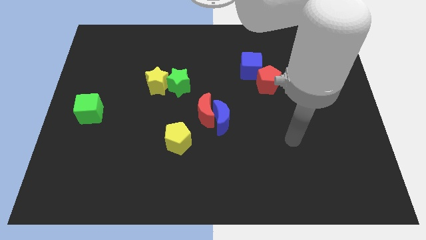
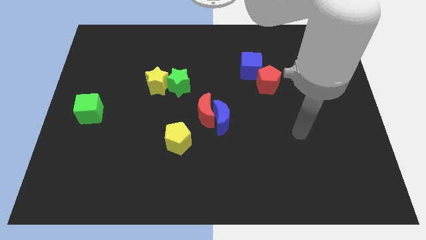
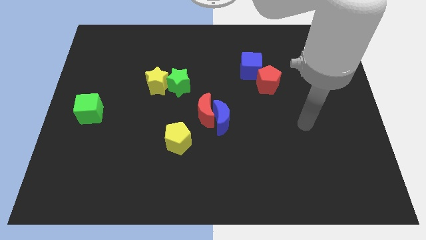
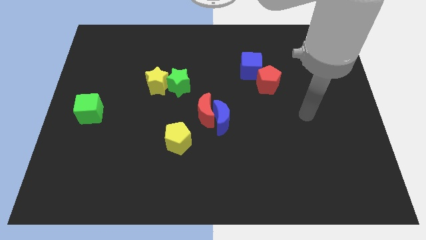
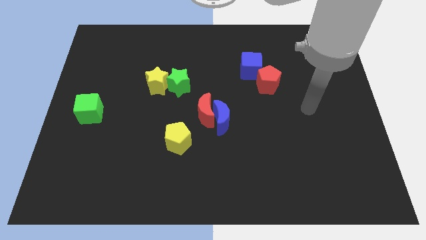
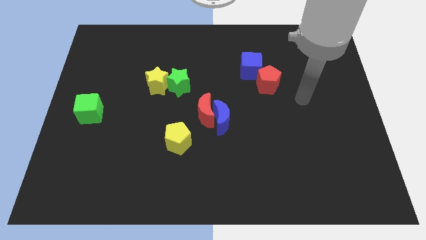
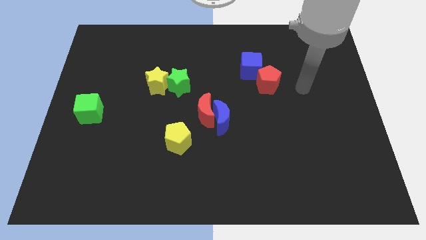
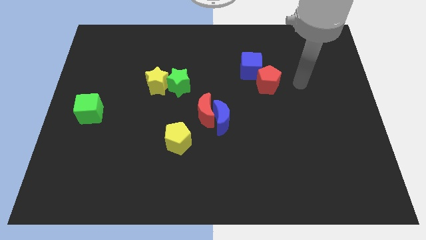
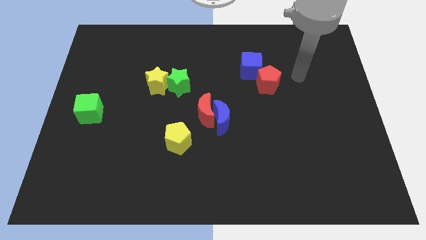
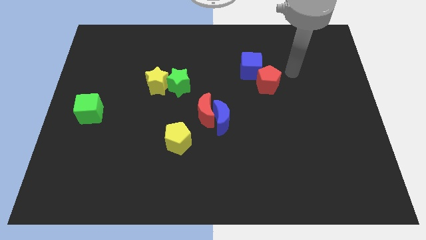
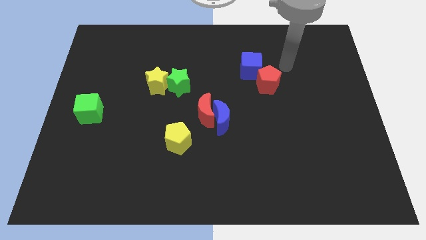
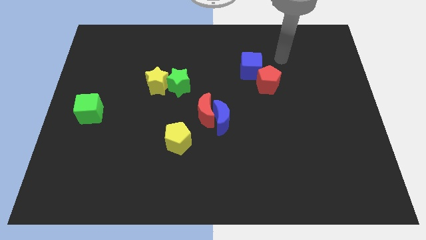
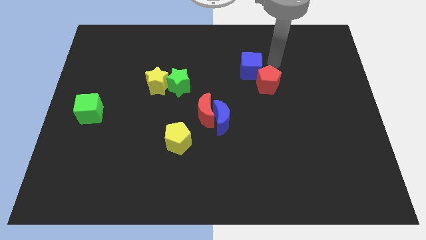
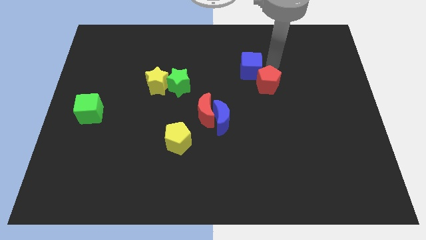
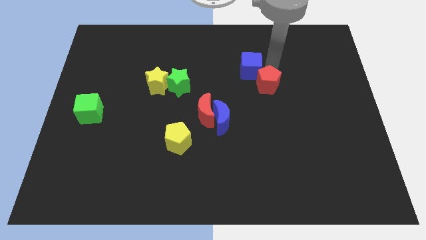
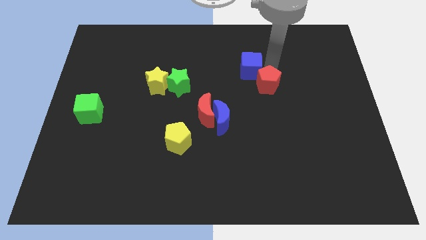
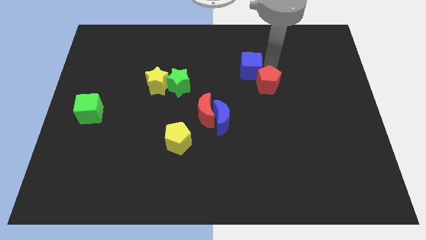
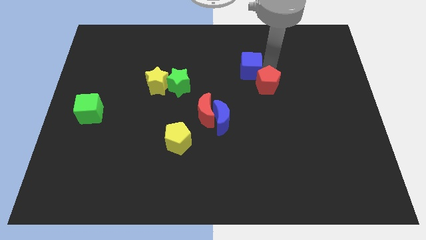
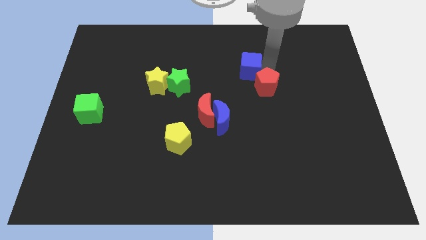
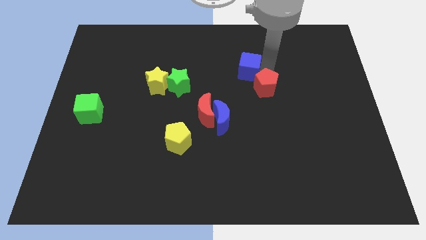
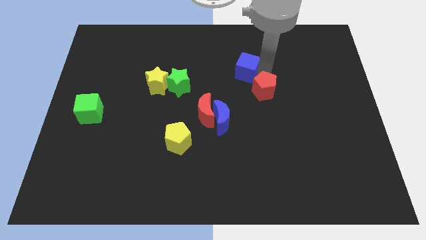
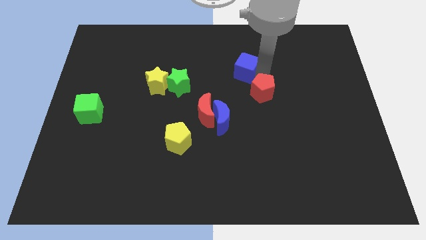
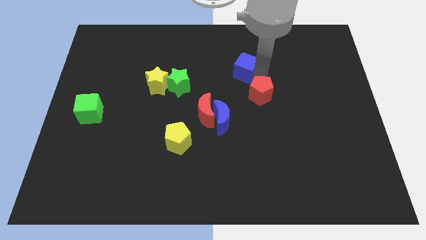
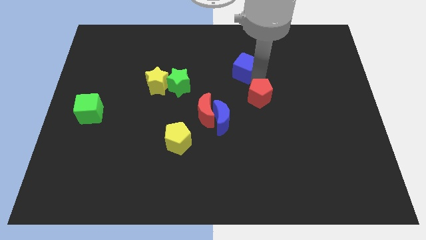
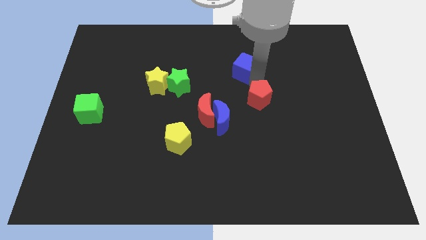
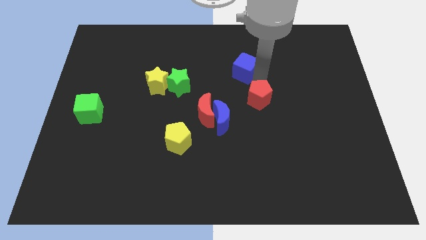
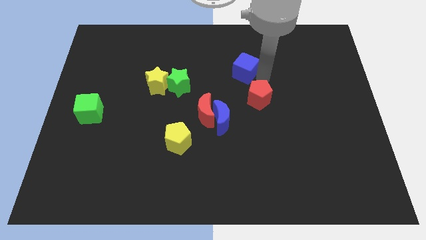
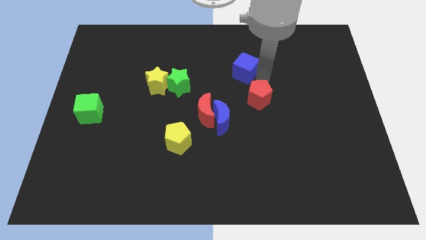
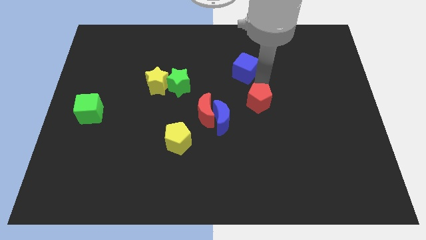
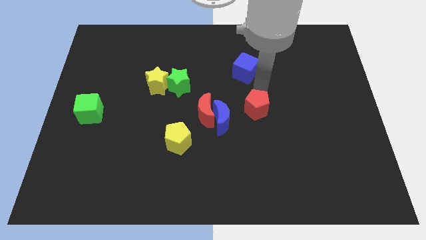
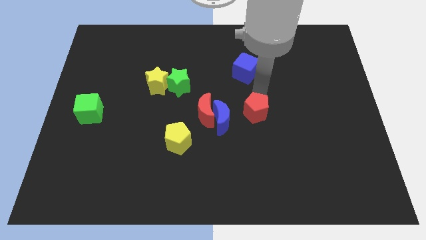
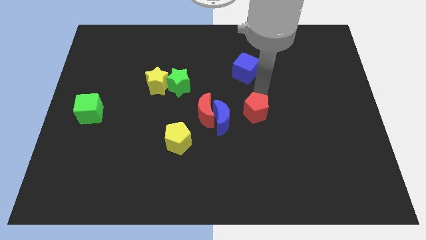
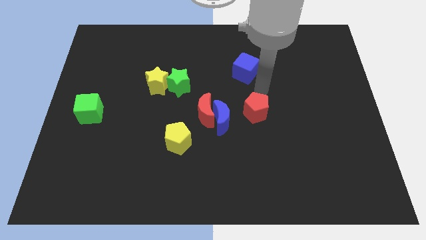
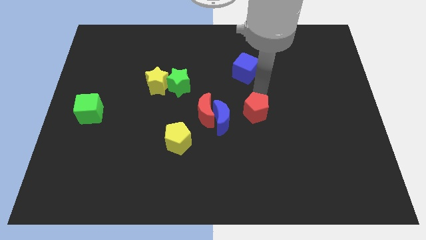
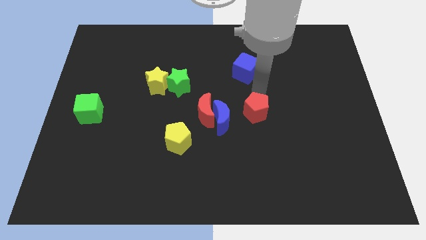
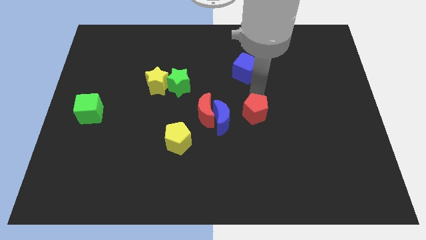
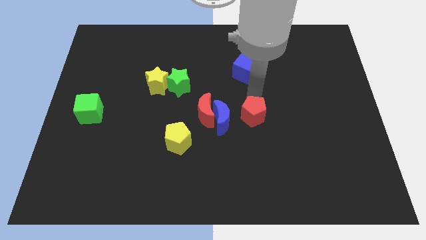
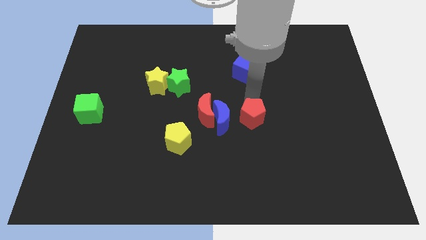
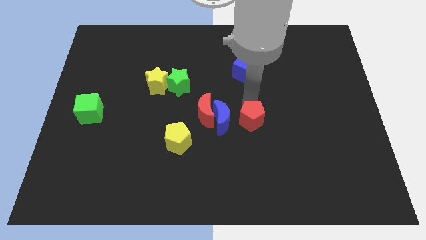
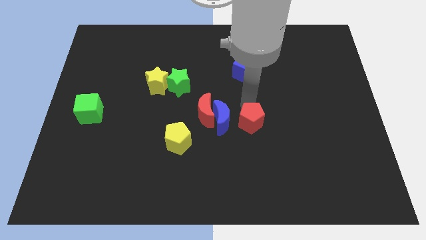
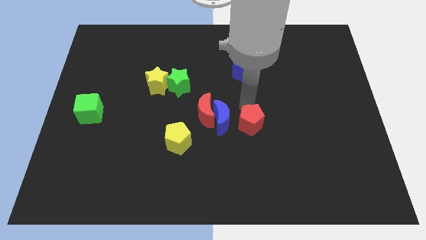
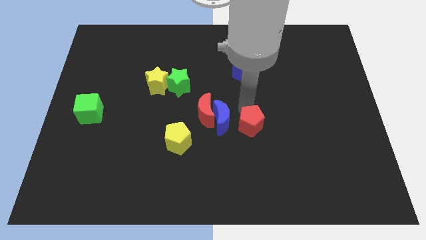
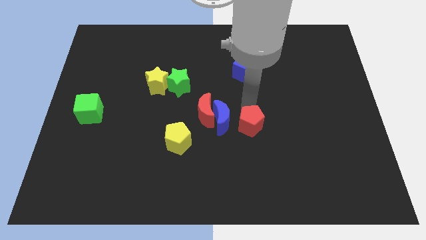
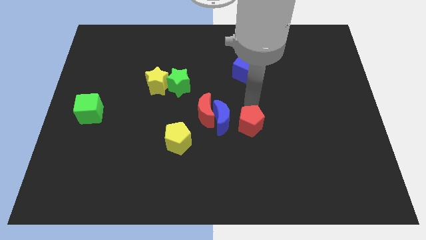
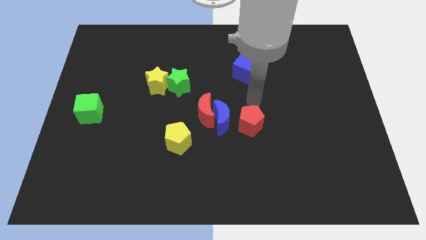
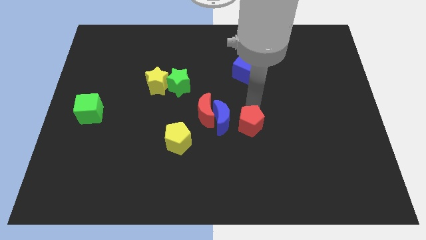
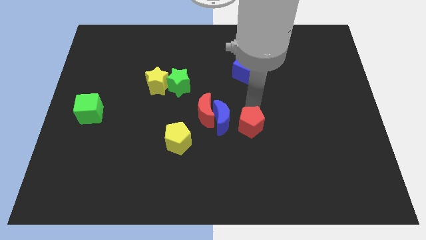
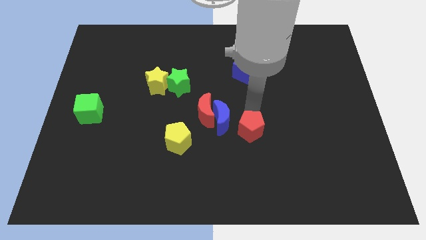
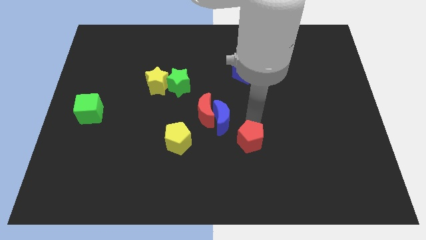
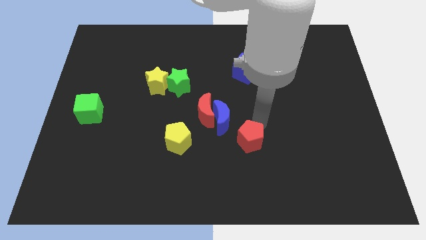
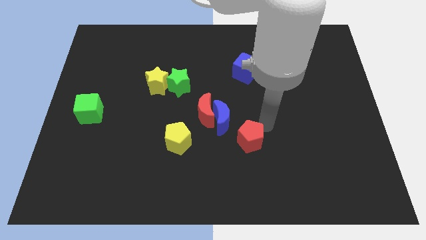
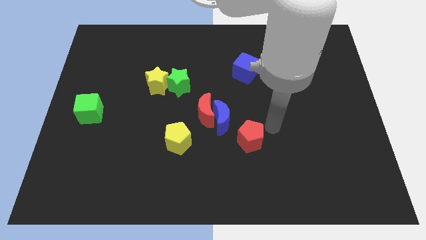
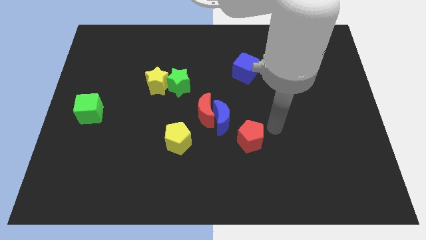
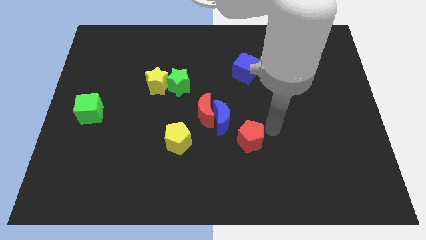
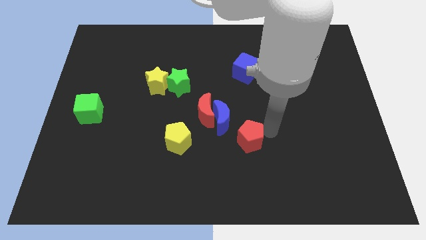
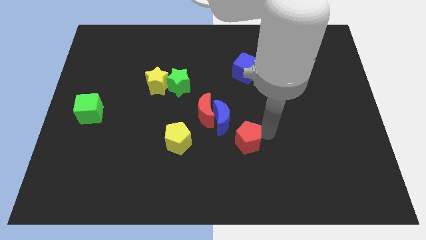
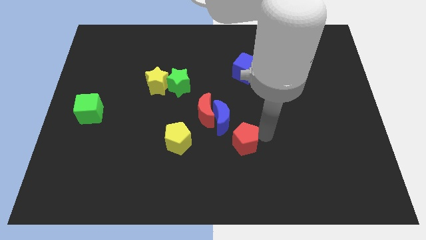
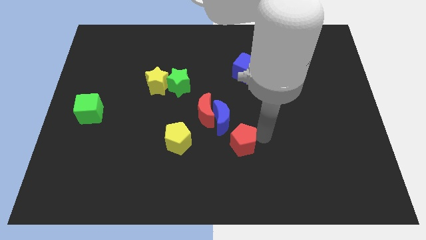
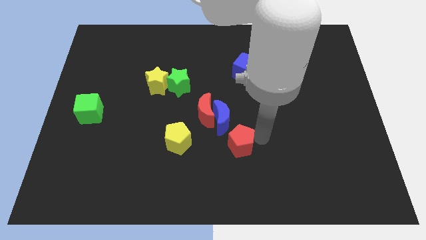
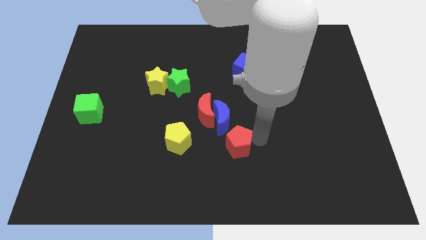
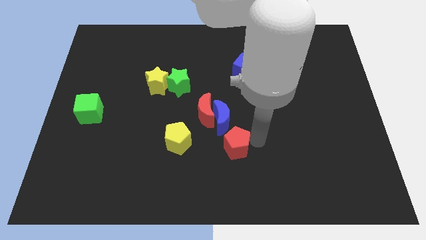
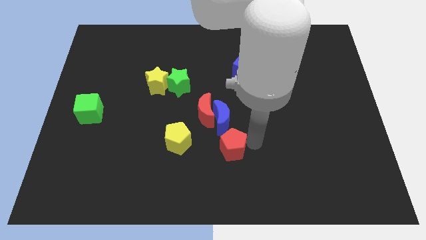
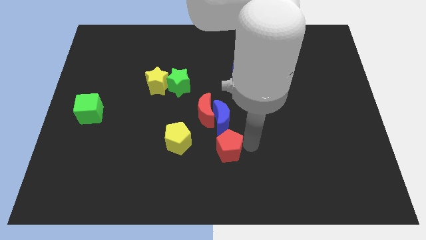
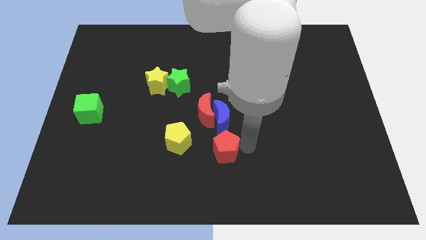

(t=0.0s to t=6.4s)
push the red pentagon downwards and left diagonally

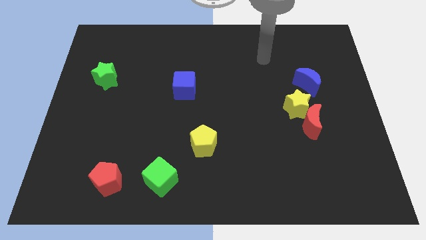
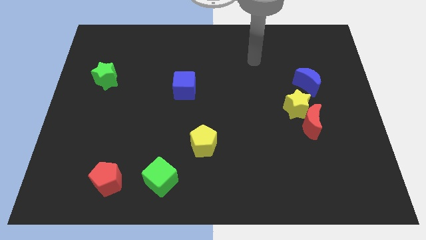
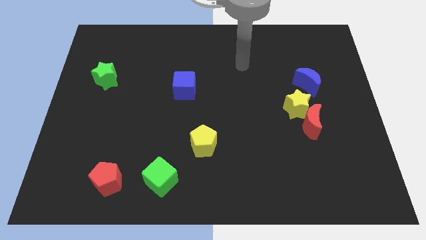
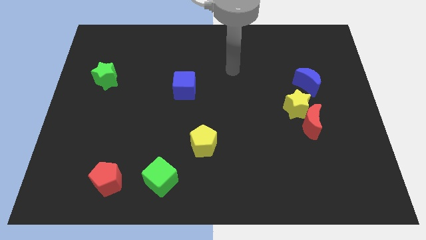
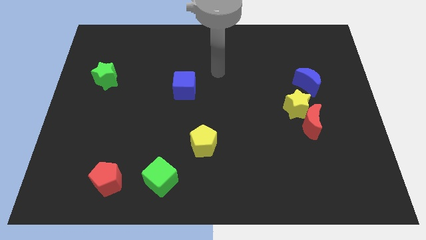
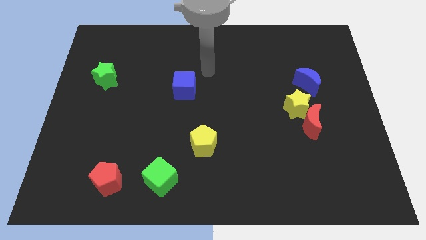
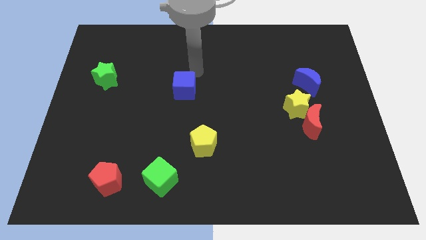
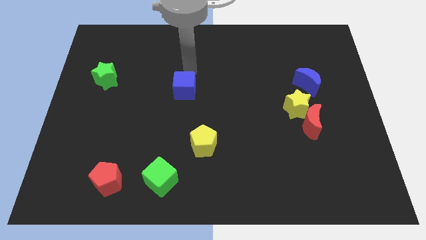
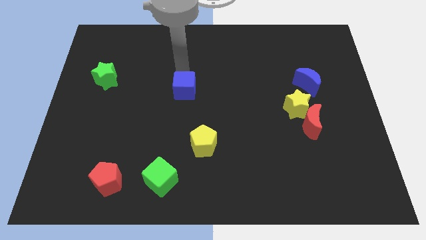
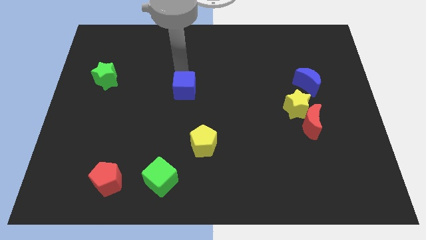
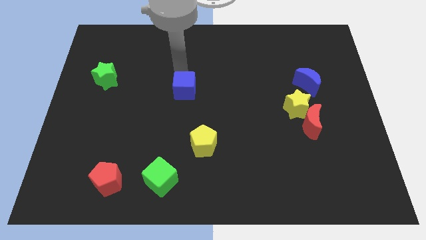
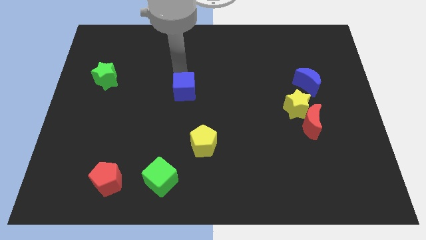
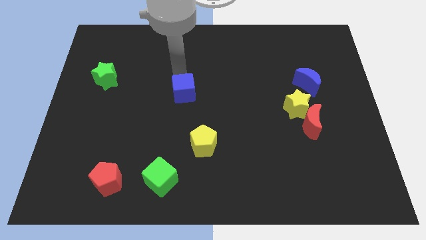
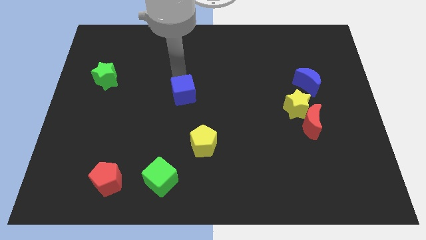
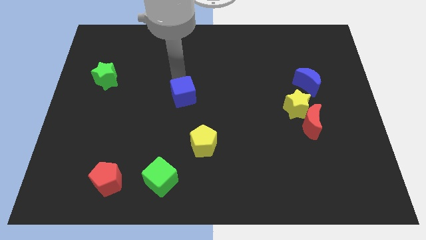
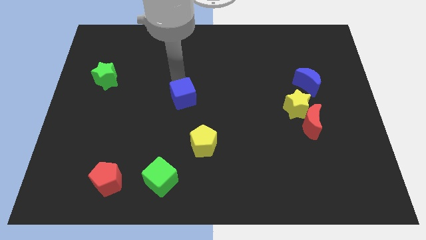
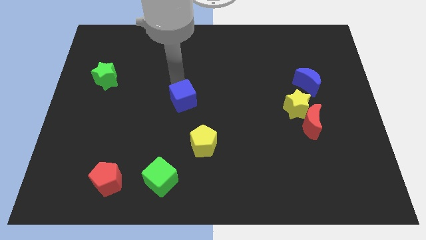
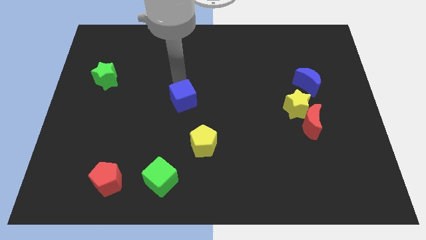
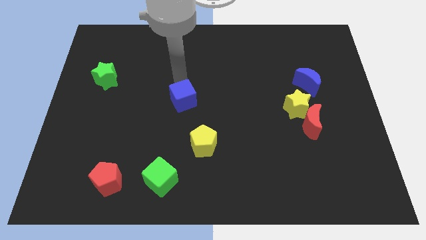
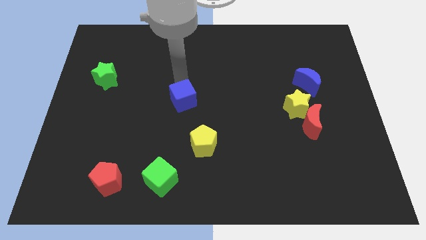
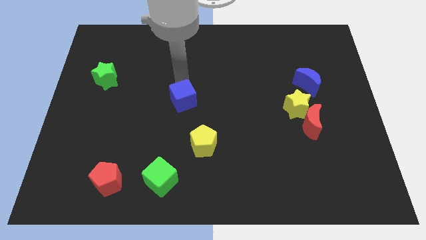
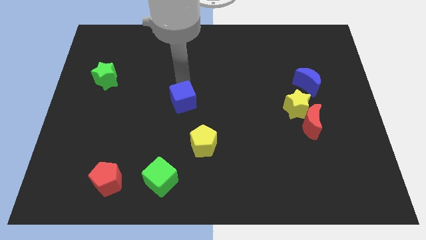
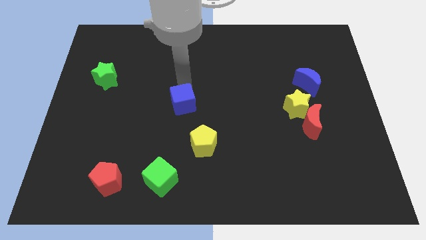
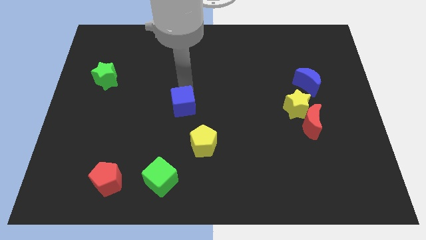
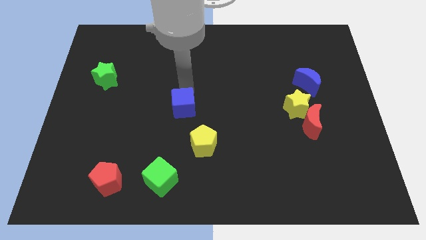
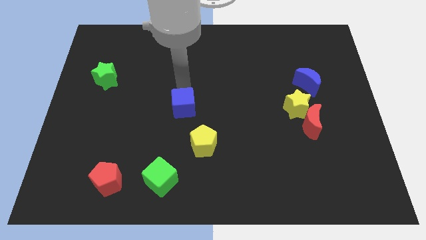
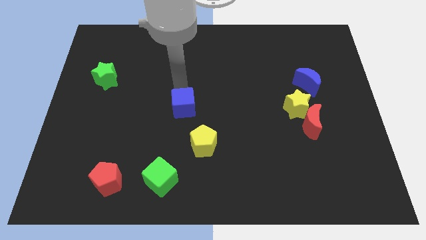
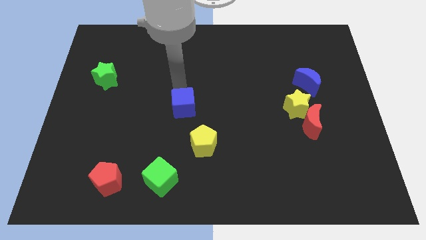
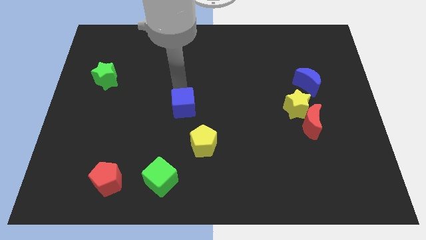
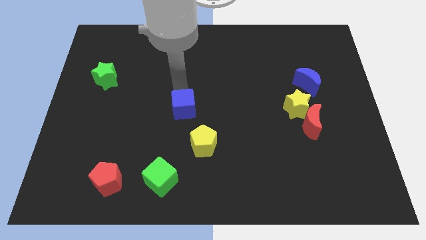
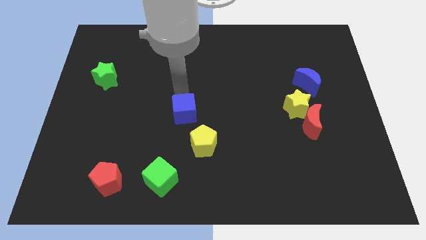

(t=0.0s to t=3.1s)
move the blue cube down a little bit
